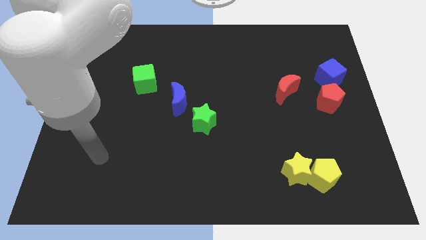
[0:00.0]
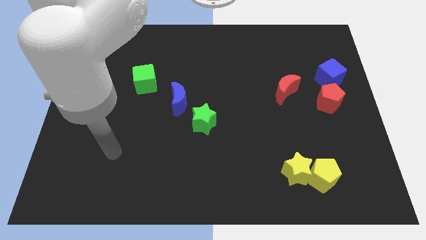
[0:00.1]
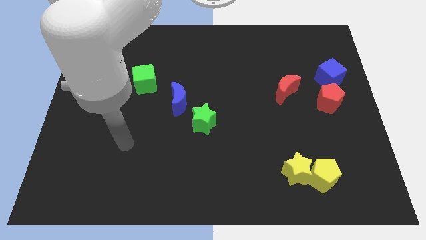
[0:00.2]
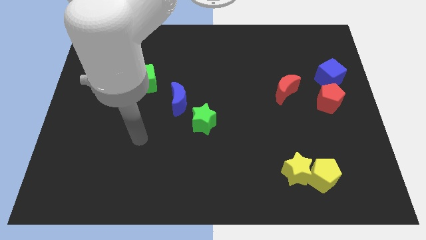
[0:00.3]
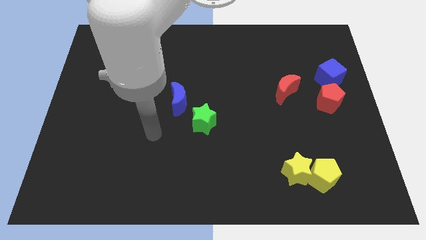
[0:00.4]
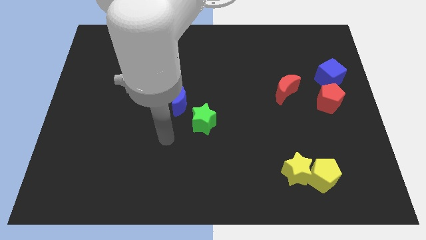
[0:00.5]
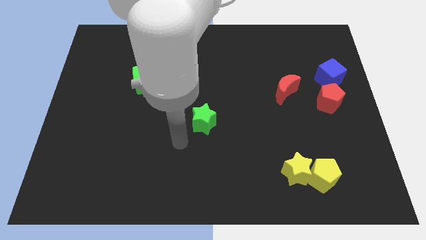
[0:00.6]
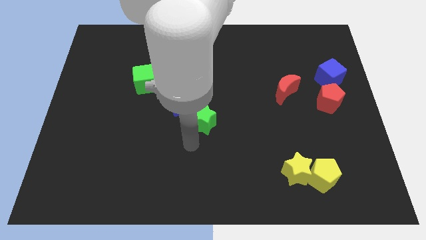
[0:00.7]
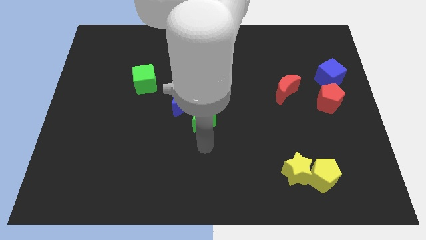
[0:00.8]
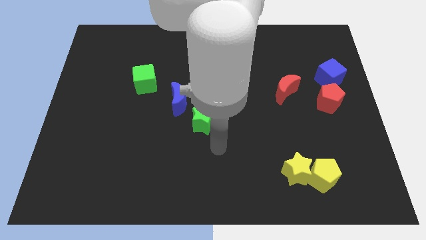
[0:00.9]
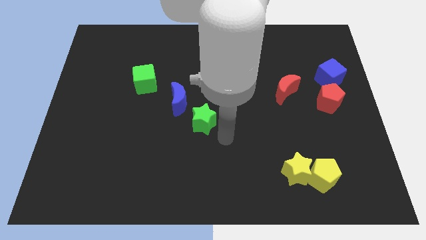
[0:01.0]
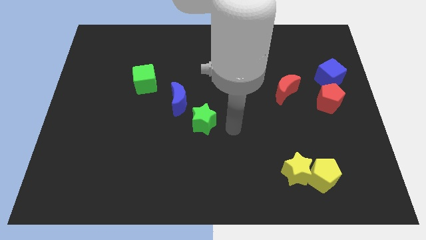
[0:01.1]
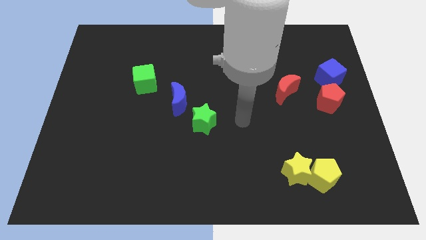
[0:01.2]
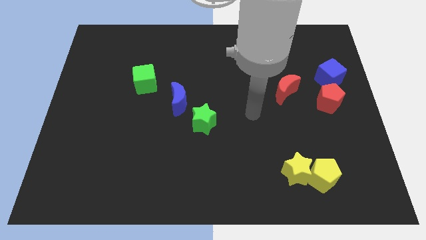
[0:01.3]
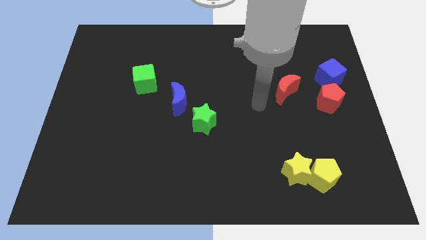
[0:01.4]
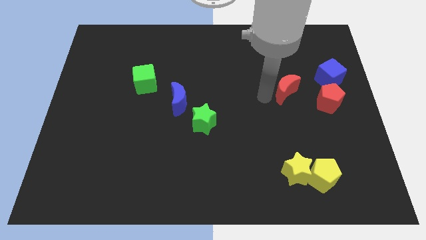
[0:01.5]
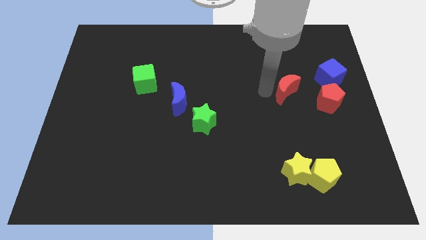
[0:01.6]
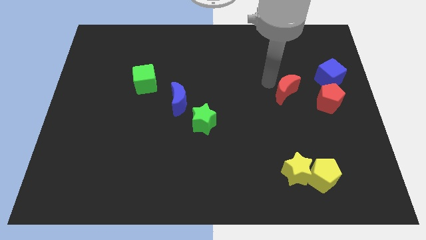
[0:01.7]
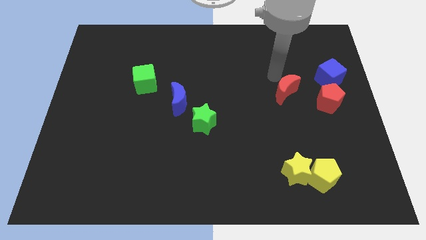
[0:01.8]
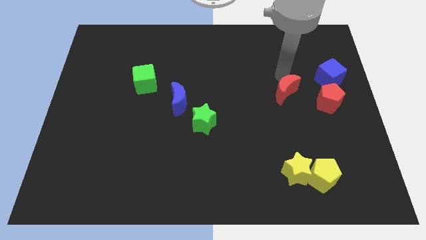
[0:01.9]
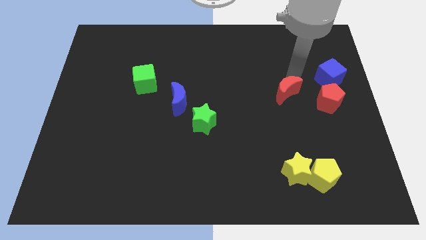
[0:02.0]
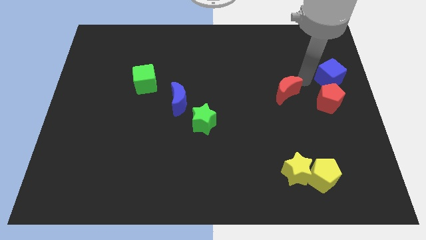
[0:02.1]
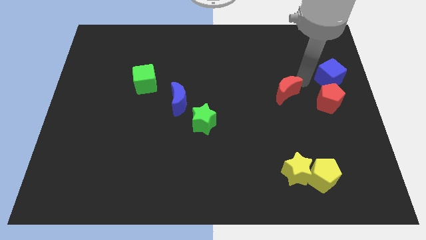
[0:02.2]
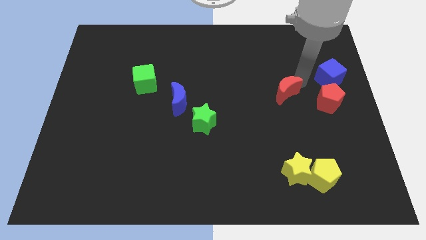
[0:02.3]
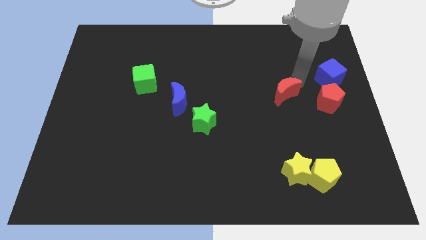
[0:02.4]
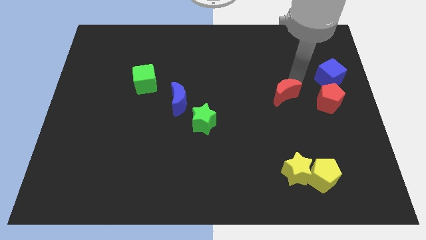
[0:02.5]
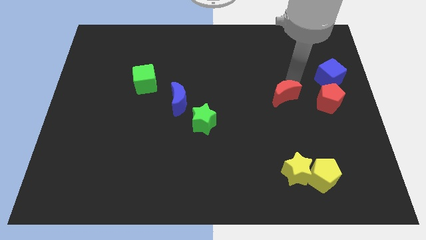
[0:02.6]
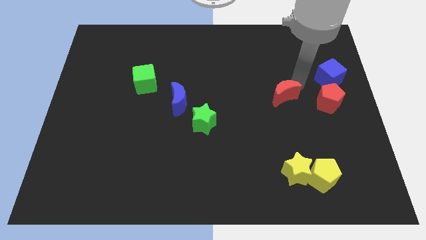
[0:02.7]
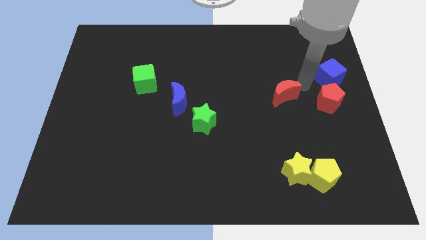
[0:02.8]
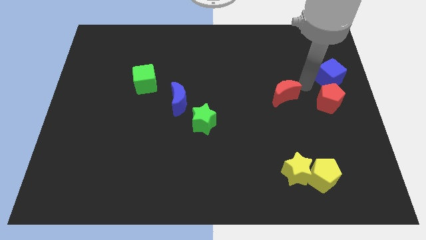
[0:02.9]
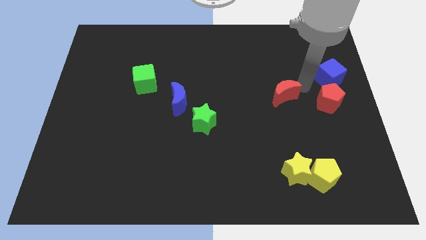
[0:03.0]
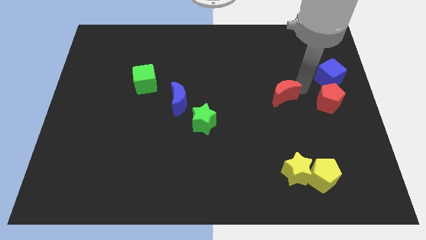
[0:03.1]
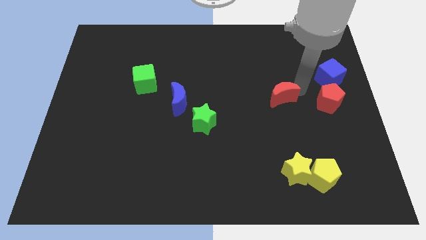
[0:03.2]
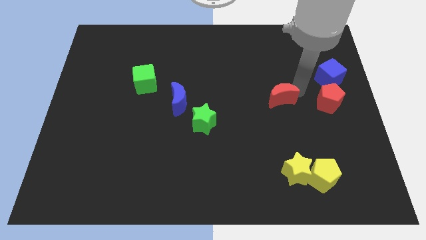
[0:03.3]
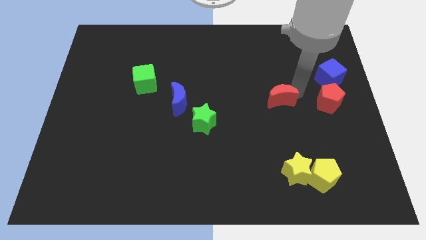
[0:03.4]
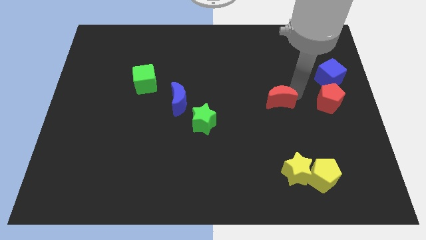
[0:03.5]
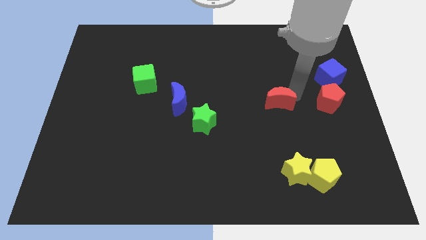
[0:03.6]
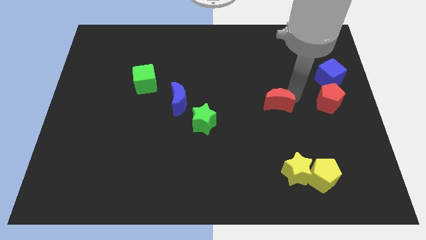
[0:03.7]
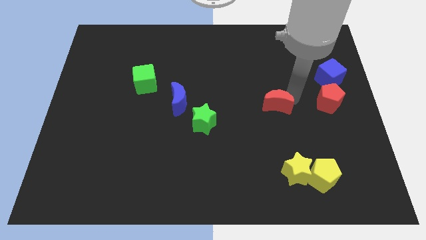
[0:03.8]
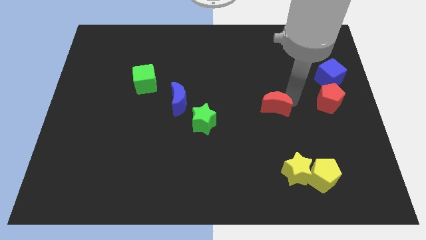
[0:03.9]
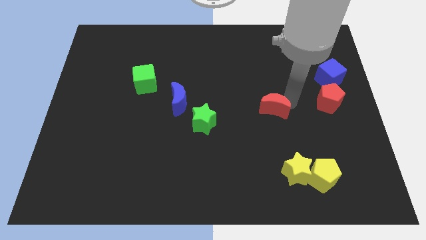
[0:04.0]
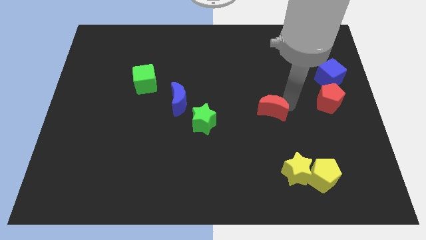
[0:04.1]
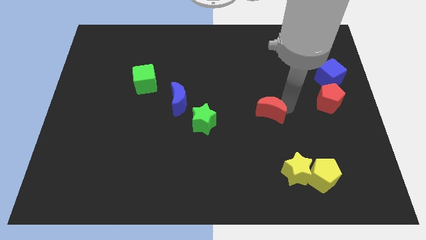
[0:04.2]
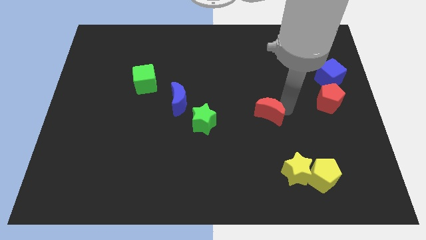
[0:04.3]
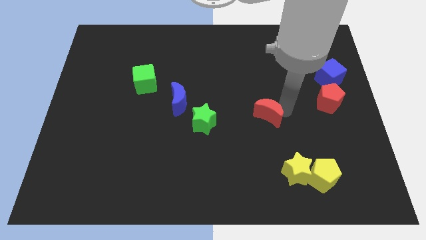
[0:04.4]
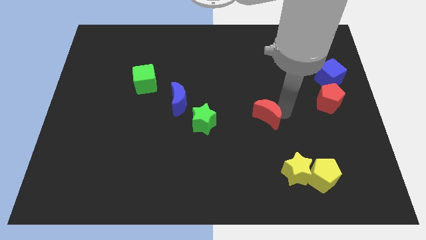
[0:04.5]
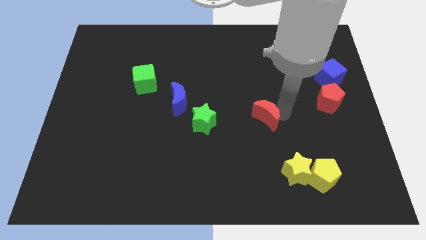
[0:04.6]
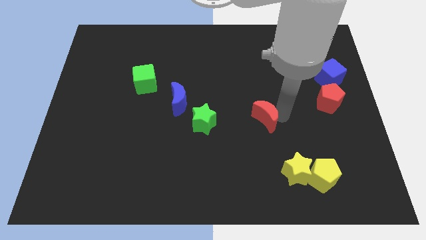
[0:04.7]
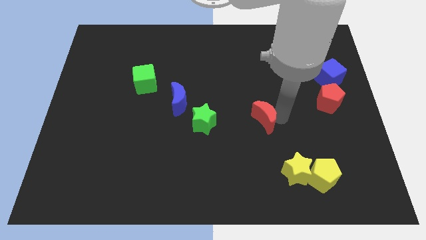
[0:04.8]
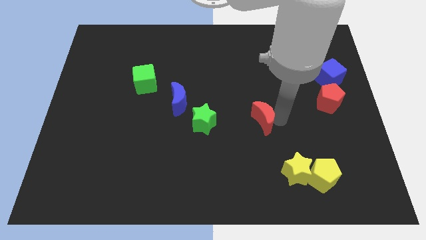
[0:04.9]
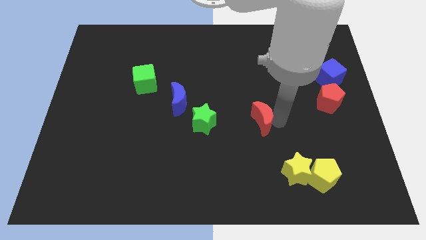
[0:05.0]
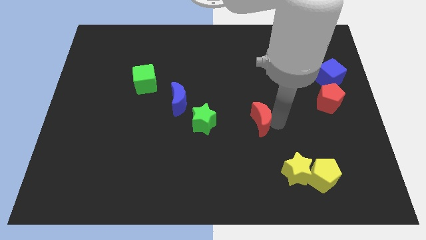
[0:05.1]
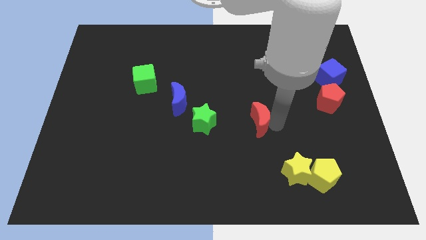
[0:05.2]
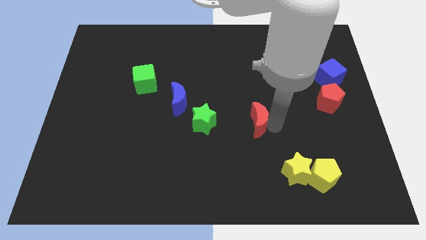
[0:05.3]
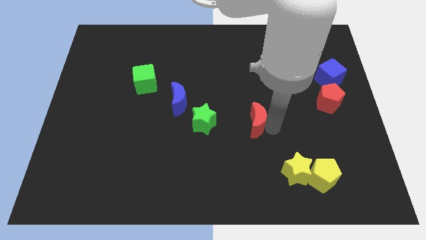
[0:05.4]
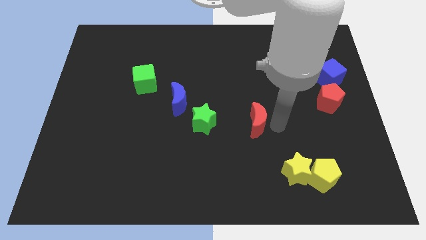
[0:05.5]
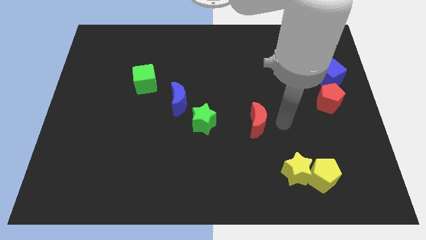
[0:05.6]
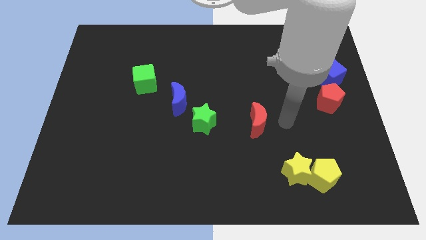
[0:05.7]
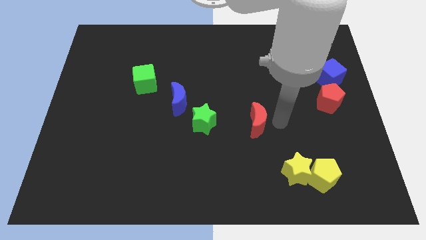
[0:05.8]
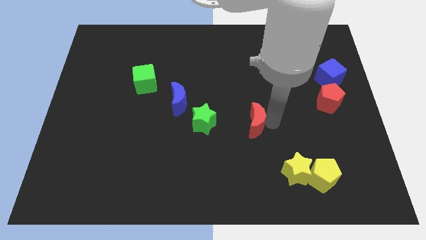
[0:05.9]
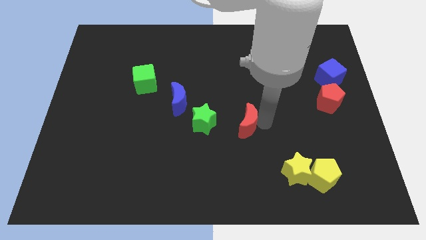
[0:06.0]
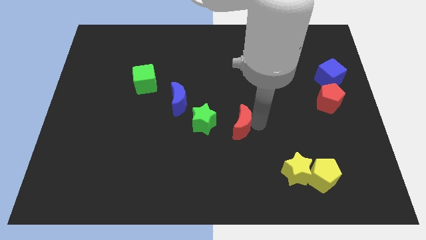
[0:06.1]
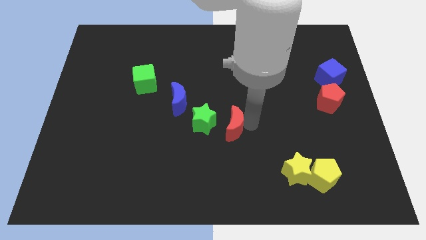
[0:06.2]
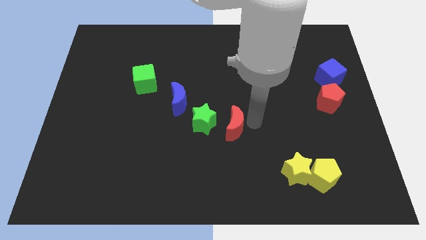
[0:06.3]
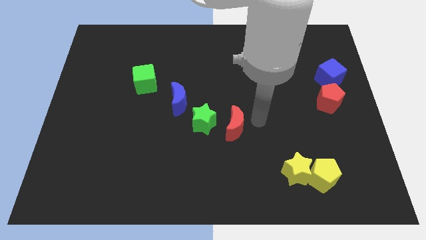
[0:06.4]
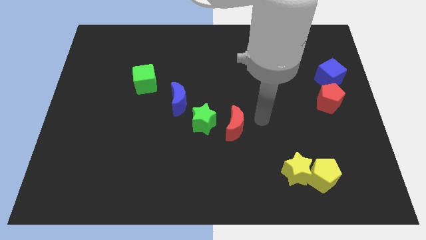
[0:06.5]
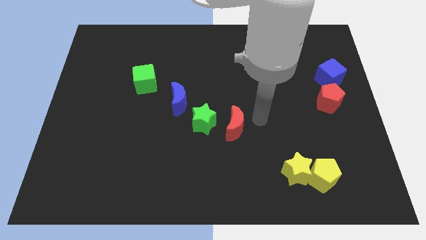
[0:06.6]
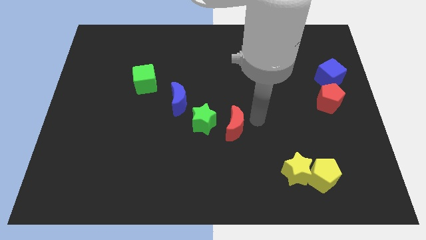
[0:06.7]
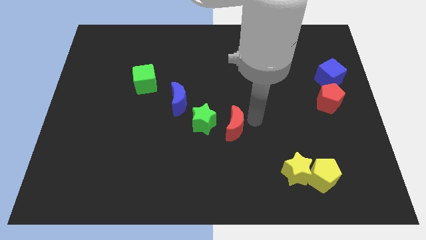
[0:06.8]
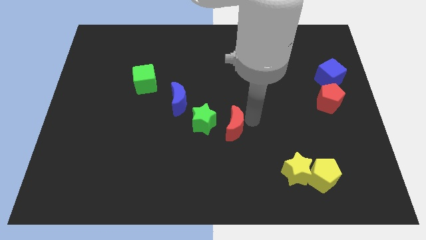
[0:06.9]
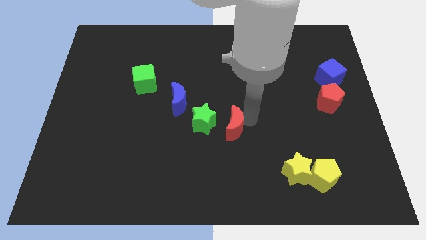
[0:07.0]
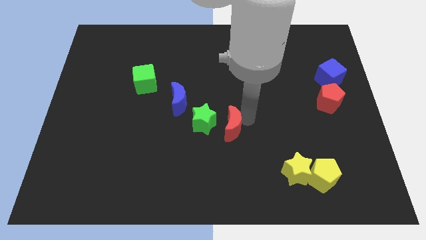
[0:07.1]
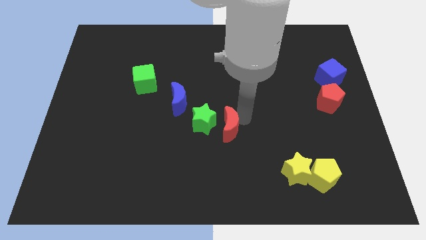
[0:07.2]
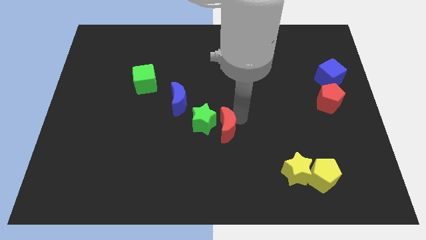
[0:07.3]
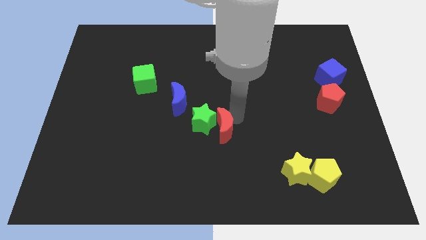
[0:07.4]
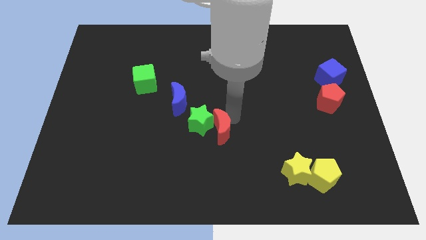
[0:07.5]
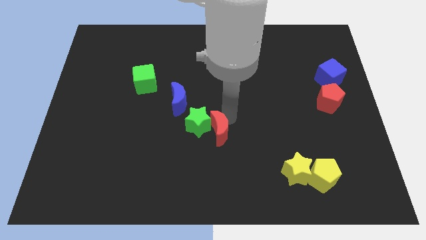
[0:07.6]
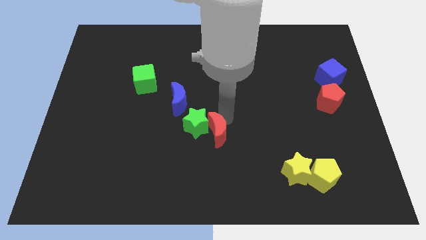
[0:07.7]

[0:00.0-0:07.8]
move the red moon diagonally downwards and to the left

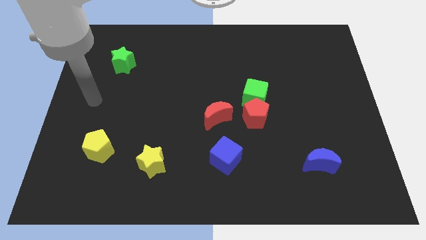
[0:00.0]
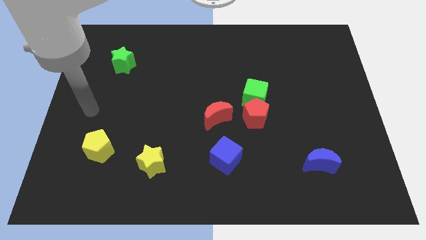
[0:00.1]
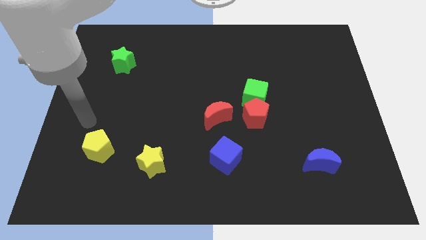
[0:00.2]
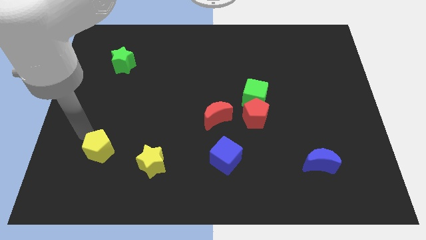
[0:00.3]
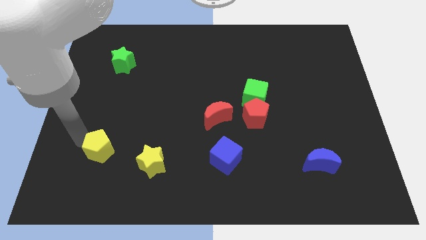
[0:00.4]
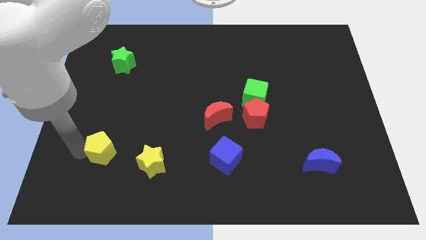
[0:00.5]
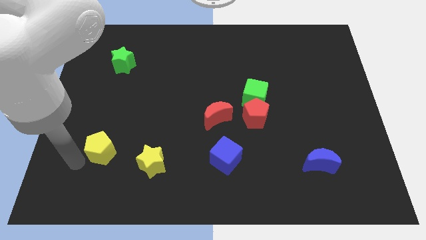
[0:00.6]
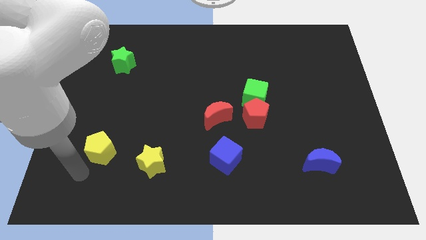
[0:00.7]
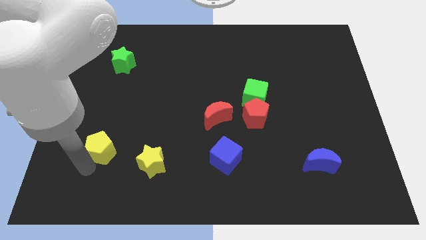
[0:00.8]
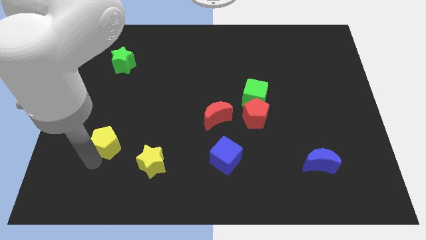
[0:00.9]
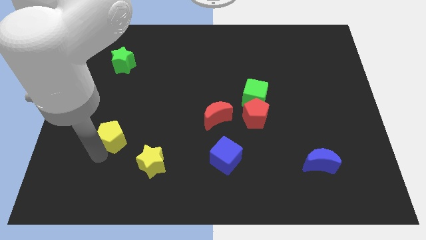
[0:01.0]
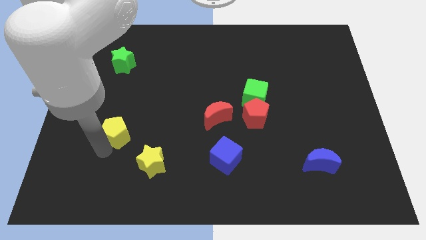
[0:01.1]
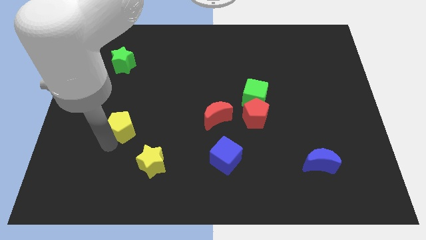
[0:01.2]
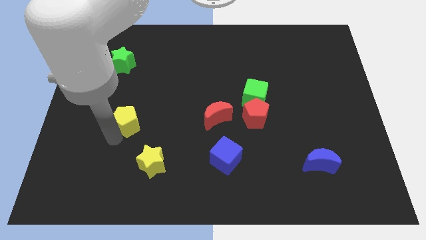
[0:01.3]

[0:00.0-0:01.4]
push the yellow pentagon a little bit upwards and then right
